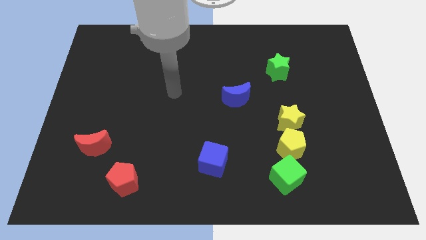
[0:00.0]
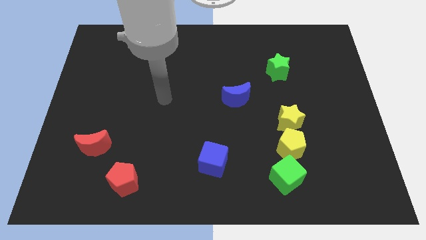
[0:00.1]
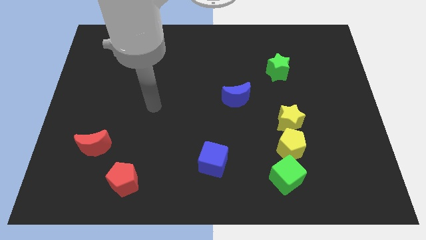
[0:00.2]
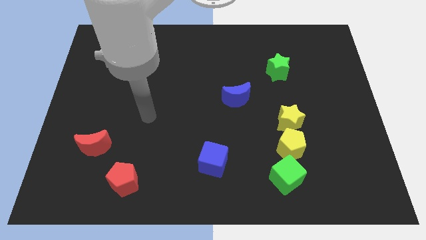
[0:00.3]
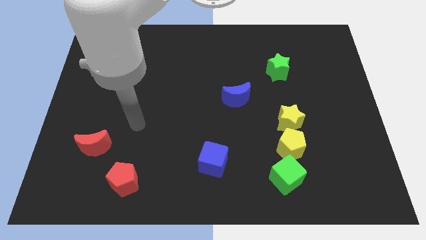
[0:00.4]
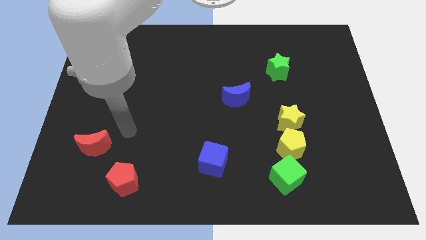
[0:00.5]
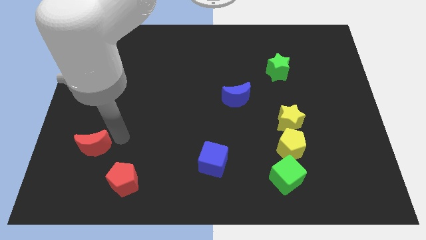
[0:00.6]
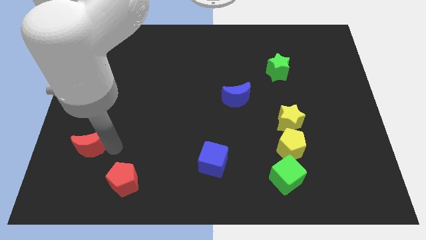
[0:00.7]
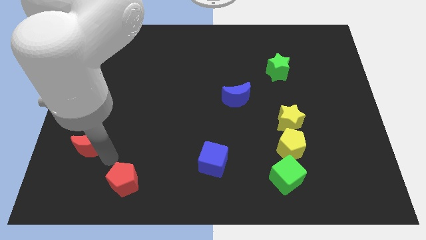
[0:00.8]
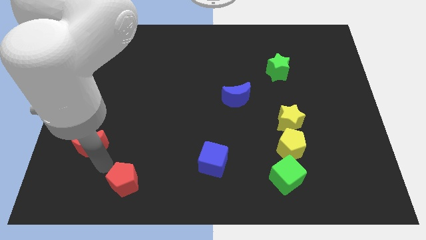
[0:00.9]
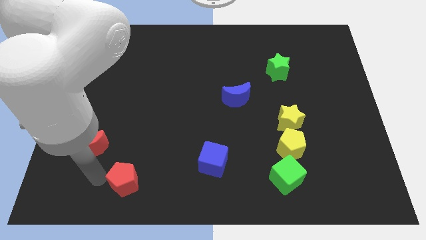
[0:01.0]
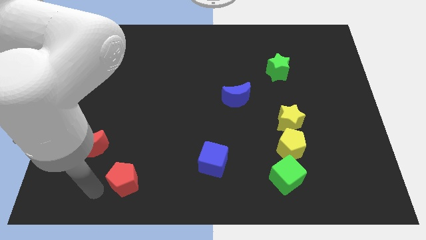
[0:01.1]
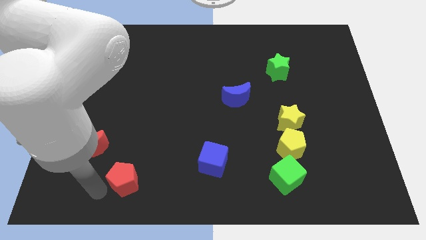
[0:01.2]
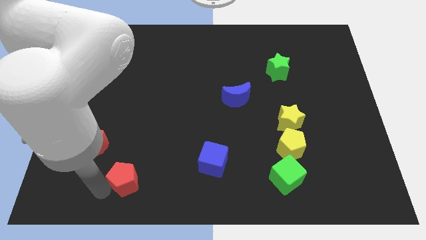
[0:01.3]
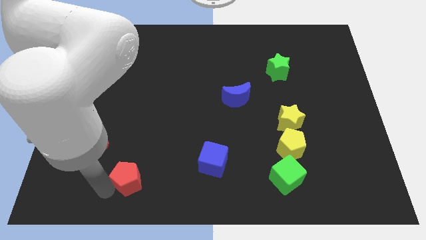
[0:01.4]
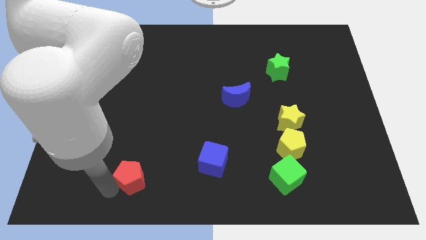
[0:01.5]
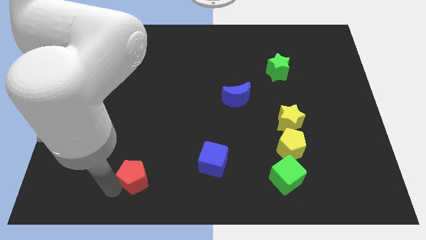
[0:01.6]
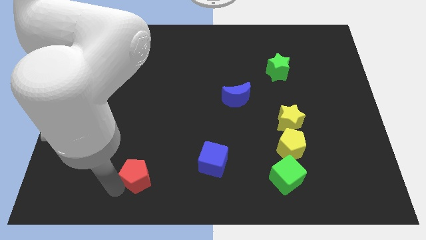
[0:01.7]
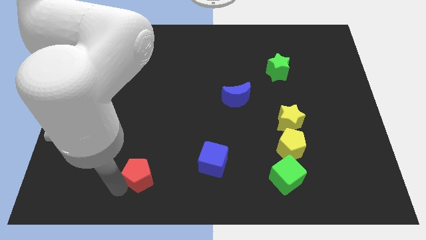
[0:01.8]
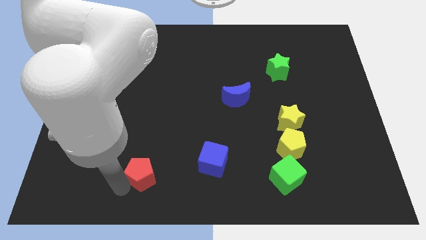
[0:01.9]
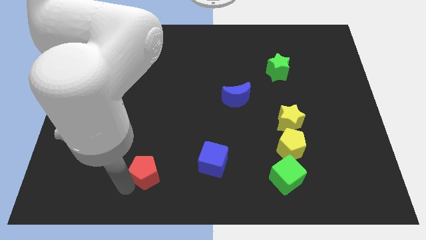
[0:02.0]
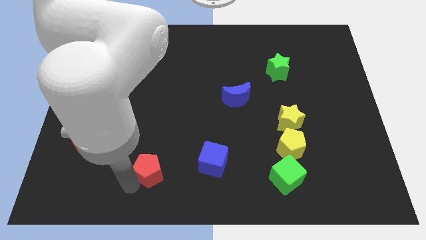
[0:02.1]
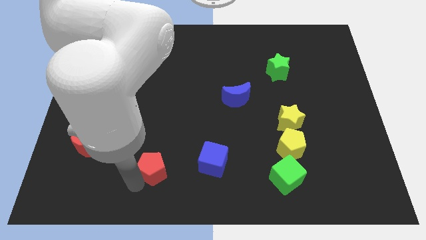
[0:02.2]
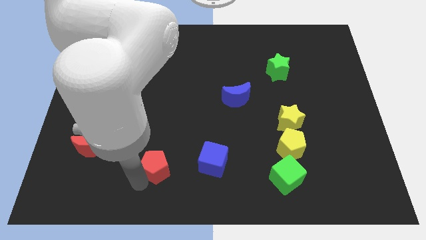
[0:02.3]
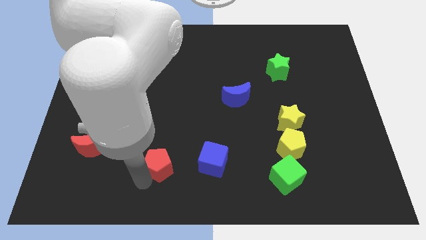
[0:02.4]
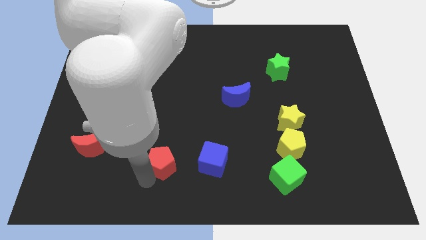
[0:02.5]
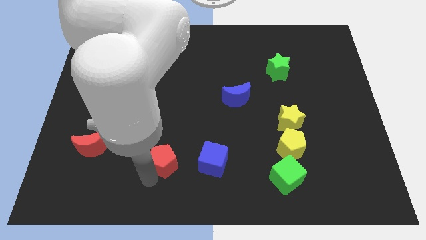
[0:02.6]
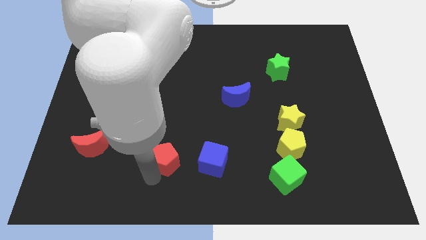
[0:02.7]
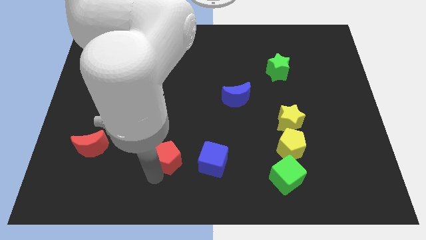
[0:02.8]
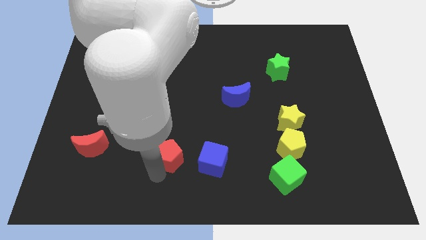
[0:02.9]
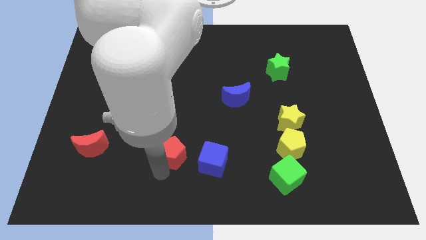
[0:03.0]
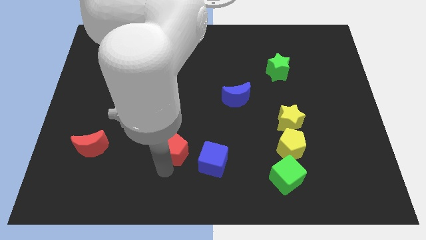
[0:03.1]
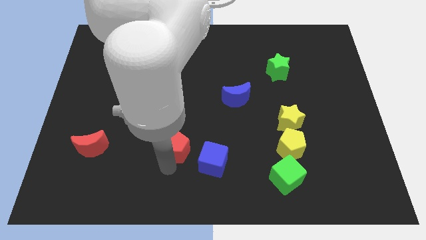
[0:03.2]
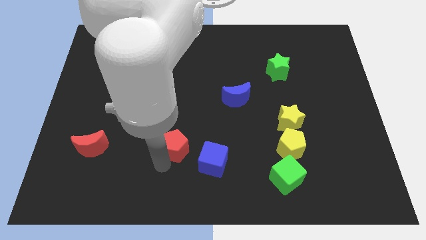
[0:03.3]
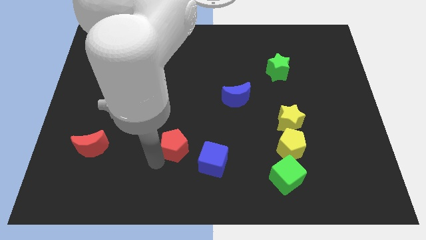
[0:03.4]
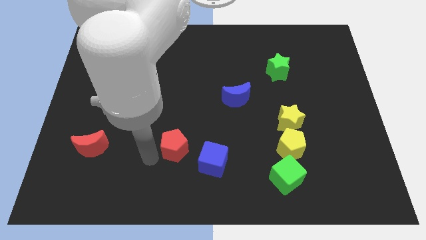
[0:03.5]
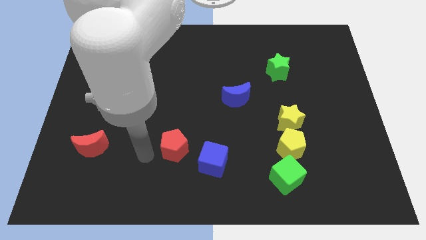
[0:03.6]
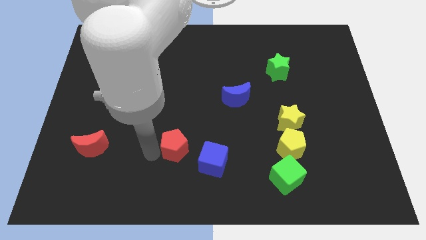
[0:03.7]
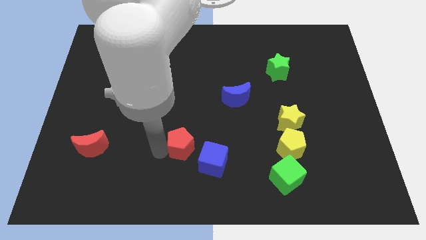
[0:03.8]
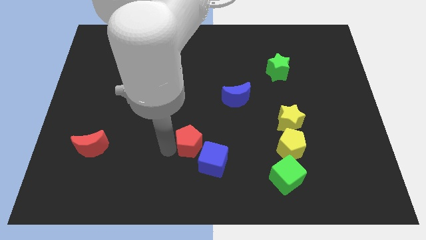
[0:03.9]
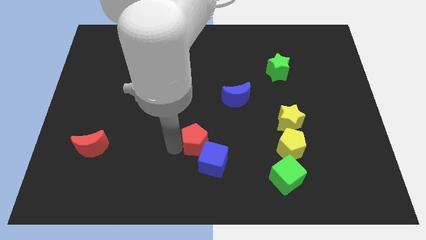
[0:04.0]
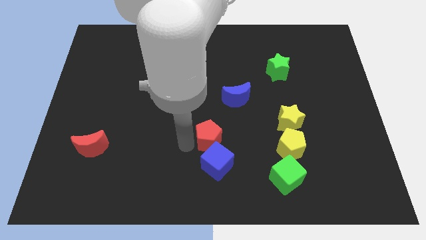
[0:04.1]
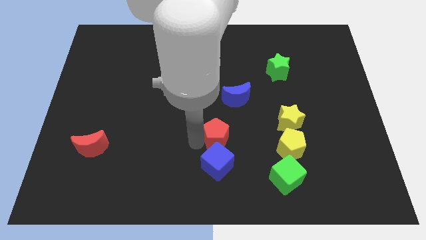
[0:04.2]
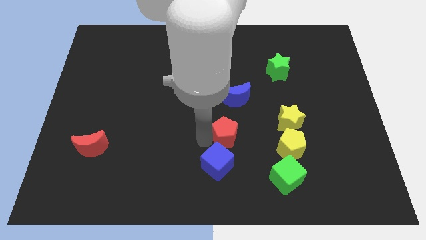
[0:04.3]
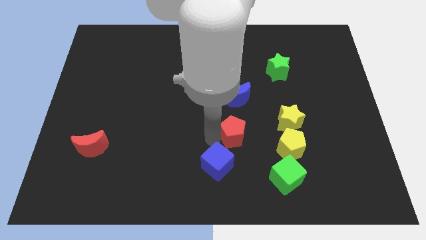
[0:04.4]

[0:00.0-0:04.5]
put the red pentagon left of the yellow star

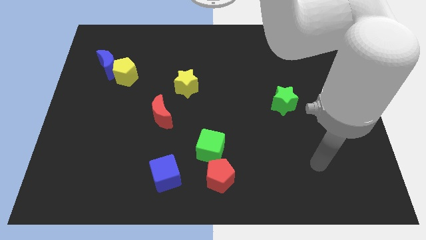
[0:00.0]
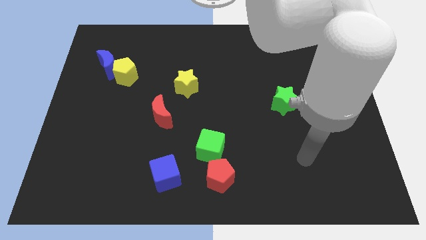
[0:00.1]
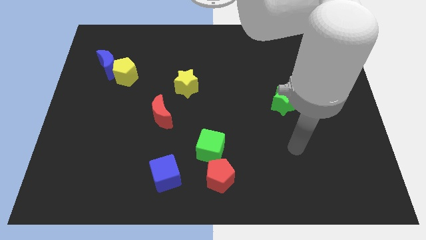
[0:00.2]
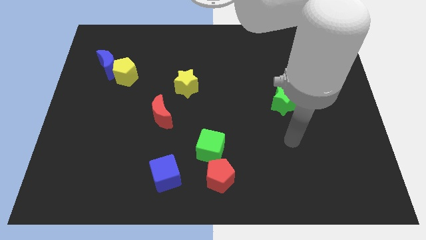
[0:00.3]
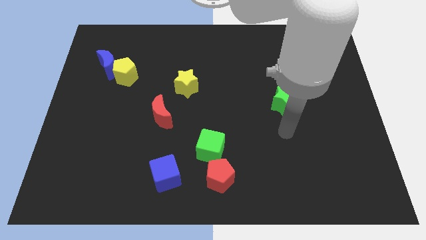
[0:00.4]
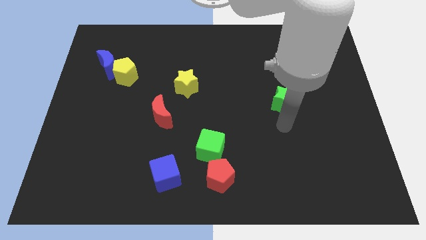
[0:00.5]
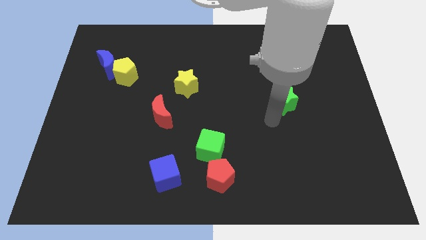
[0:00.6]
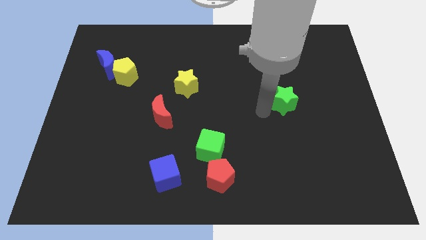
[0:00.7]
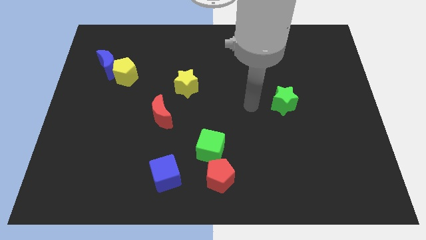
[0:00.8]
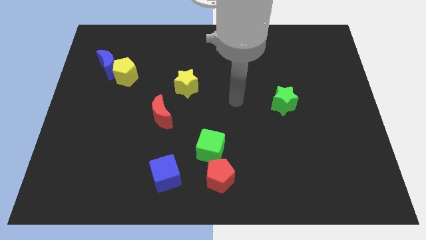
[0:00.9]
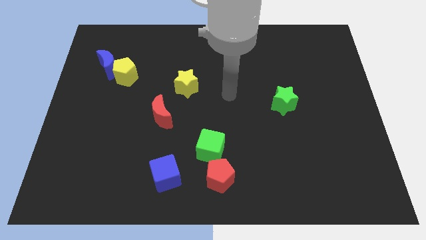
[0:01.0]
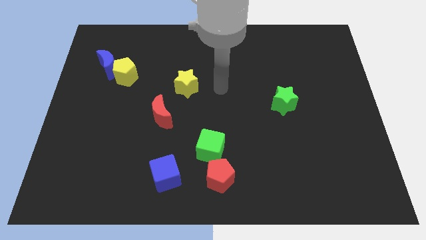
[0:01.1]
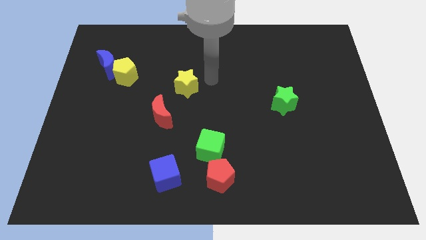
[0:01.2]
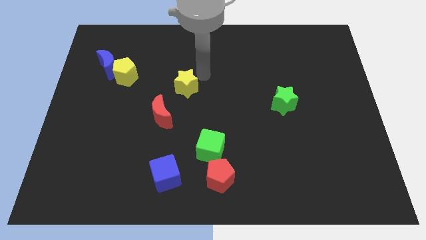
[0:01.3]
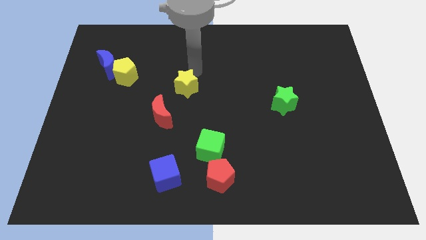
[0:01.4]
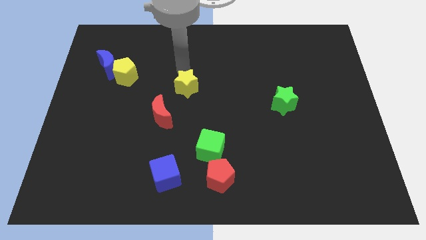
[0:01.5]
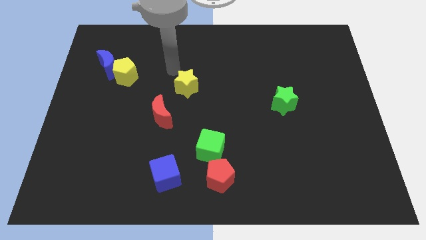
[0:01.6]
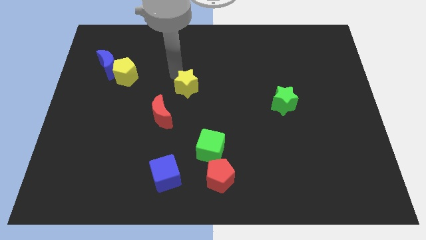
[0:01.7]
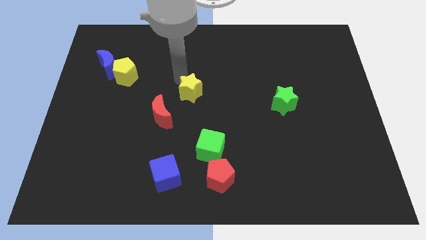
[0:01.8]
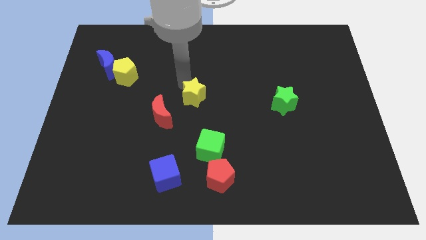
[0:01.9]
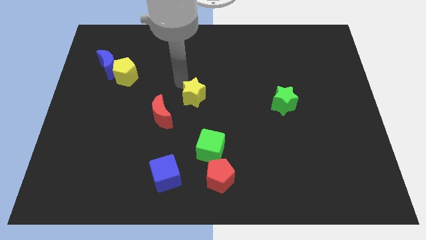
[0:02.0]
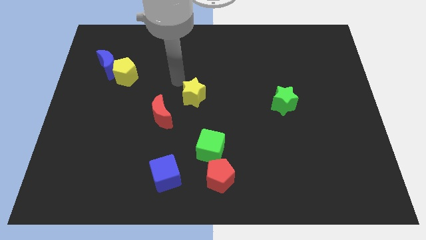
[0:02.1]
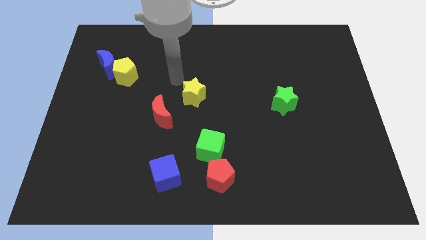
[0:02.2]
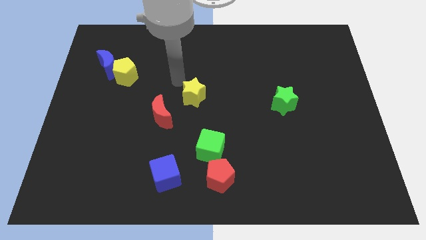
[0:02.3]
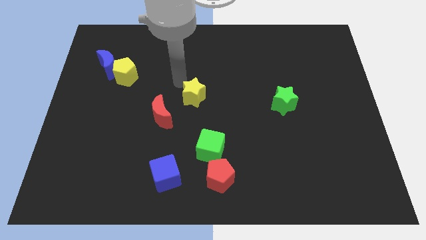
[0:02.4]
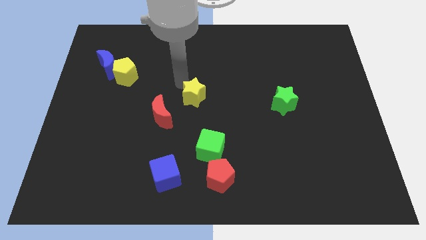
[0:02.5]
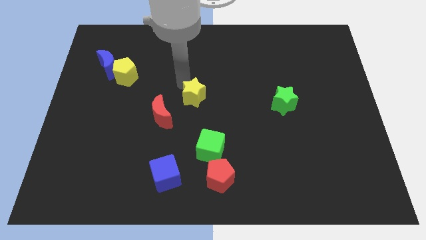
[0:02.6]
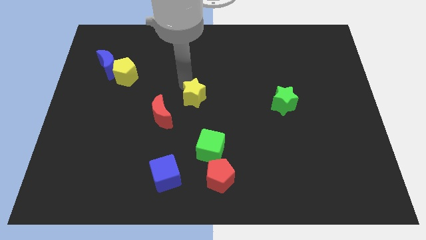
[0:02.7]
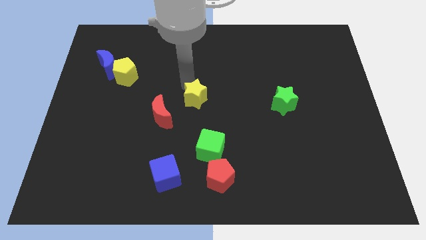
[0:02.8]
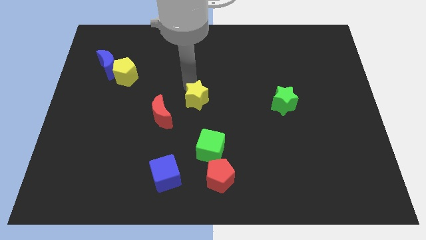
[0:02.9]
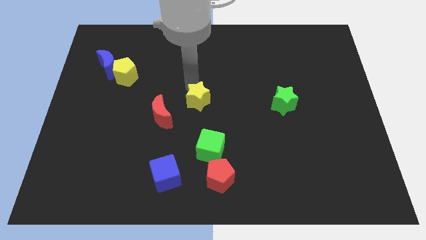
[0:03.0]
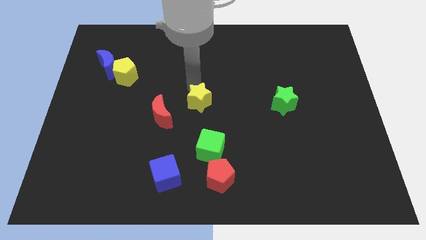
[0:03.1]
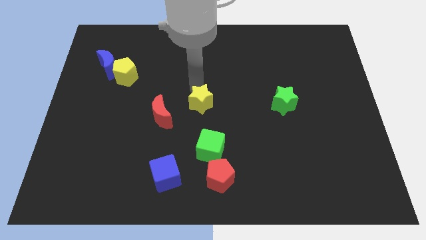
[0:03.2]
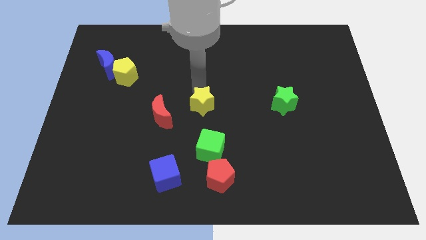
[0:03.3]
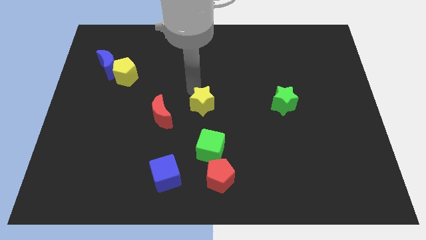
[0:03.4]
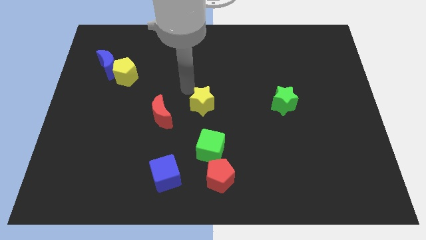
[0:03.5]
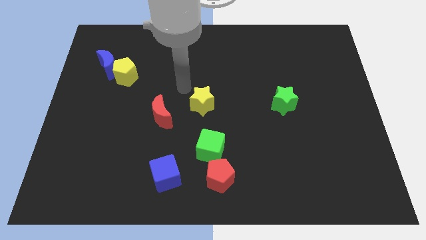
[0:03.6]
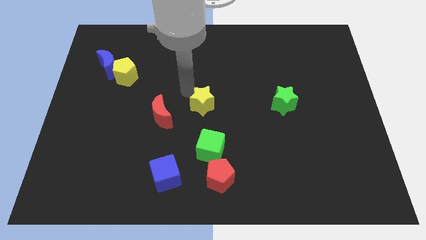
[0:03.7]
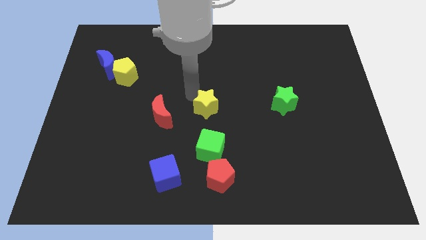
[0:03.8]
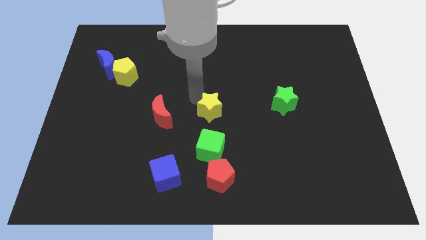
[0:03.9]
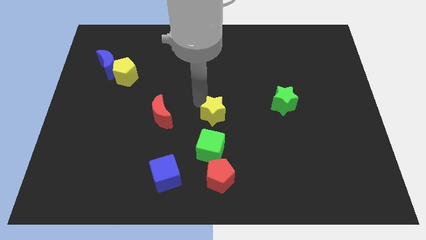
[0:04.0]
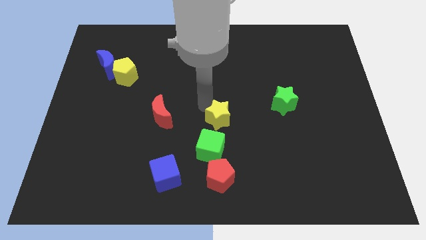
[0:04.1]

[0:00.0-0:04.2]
slide the yellow star diagonally up and to the right of the green cube
